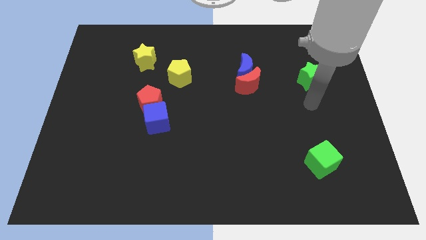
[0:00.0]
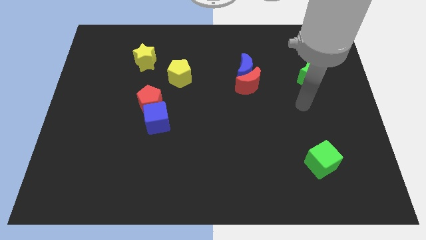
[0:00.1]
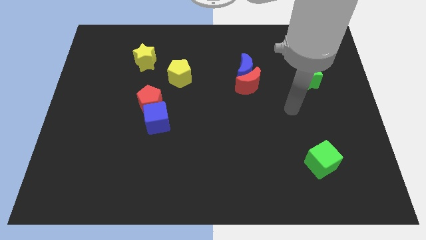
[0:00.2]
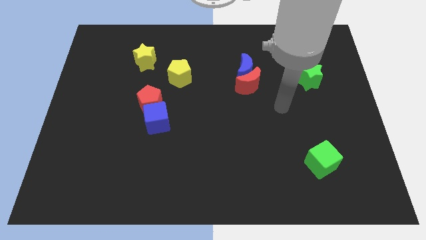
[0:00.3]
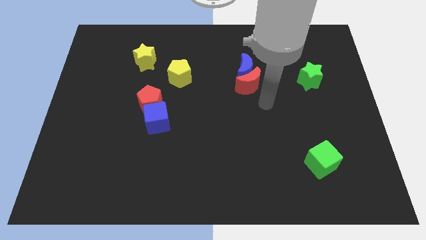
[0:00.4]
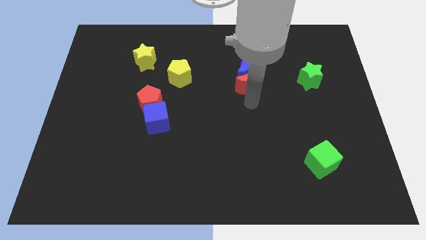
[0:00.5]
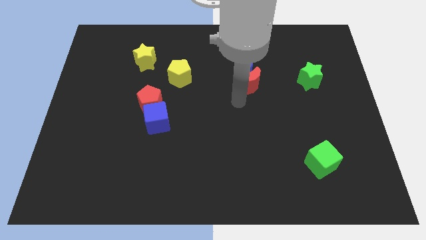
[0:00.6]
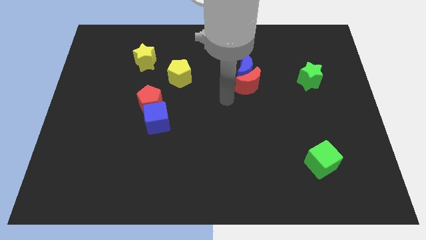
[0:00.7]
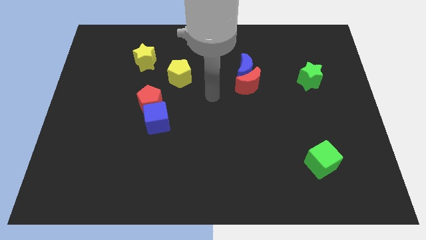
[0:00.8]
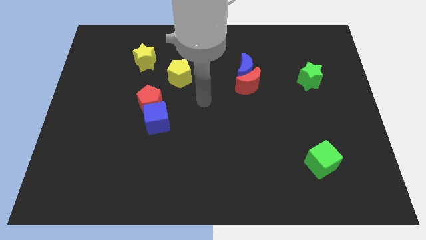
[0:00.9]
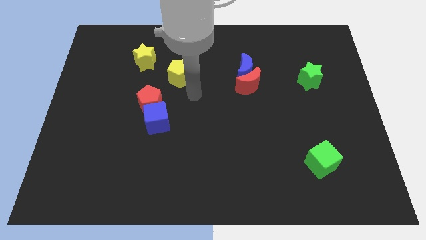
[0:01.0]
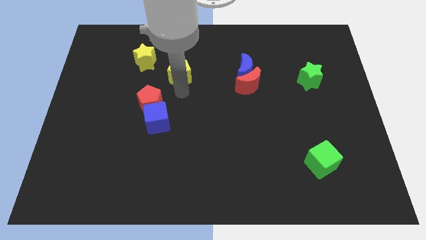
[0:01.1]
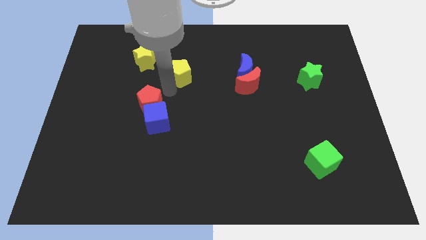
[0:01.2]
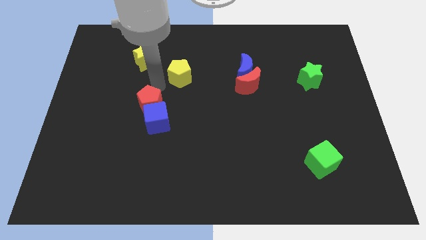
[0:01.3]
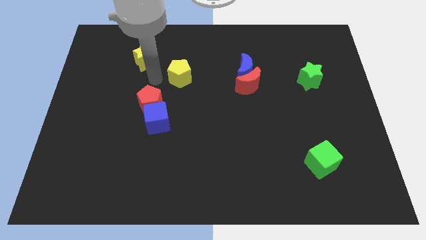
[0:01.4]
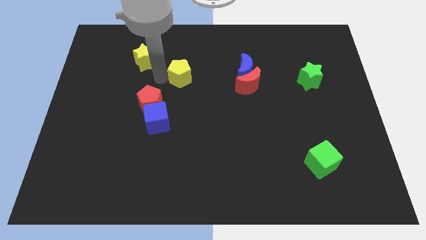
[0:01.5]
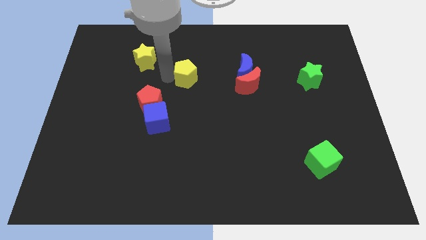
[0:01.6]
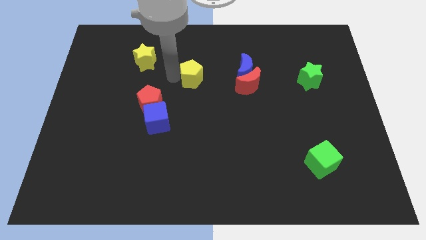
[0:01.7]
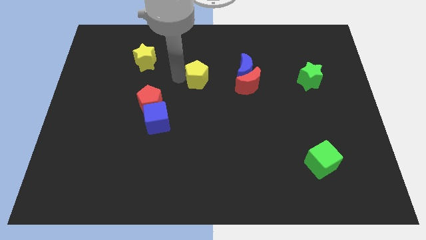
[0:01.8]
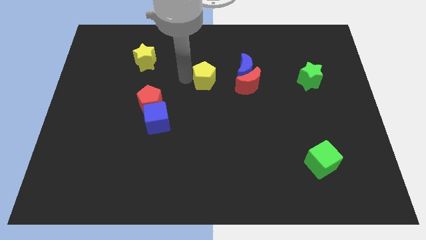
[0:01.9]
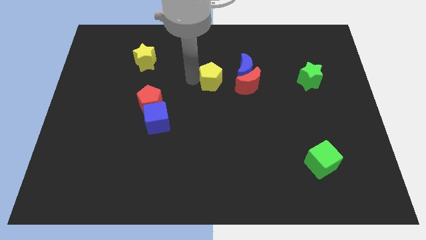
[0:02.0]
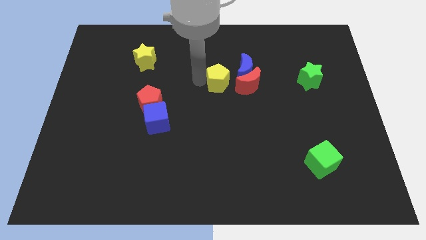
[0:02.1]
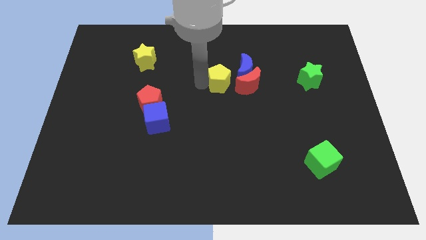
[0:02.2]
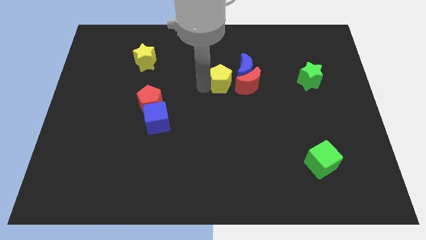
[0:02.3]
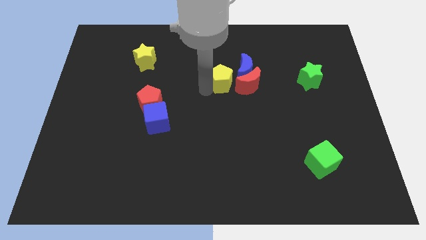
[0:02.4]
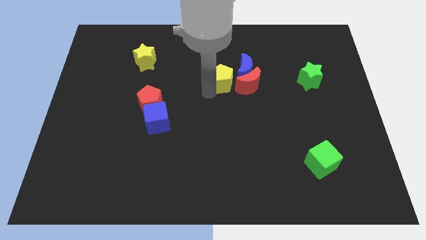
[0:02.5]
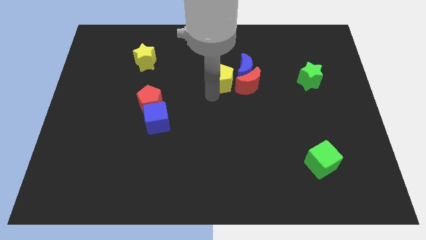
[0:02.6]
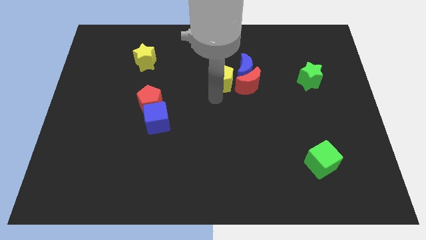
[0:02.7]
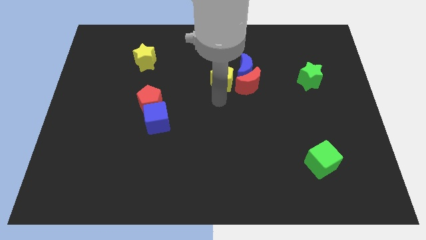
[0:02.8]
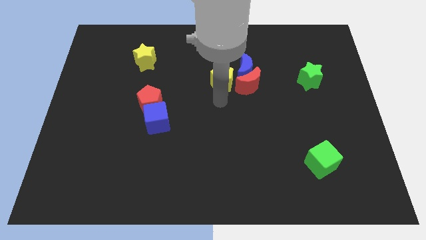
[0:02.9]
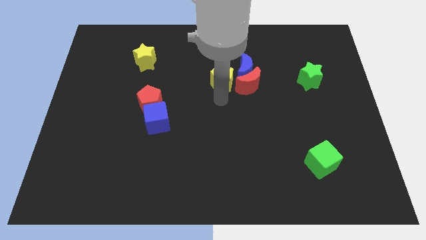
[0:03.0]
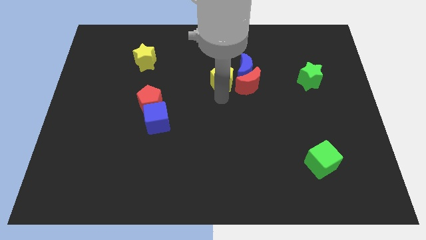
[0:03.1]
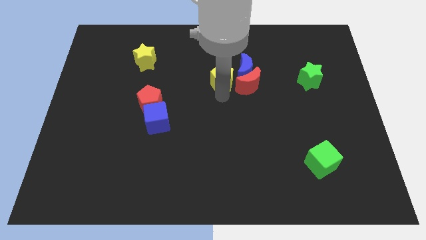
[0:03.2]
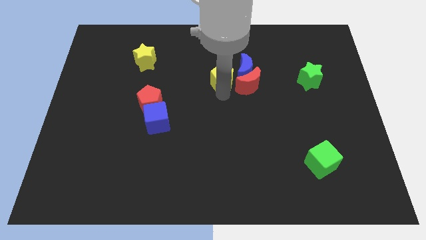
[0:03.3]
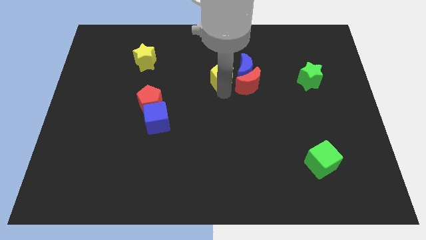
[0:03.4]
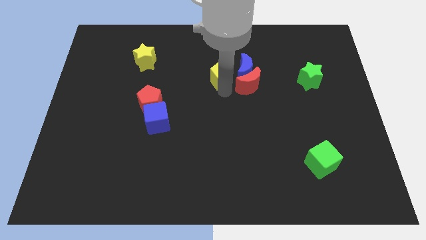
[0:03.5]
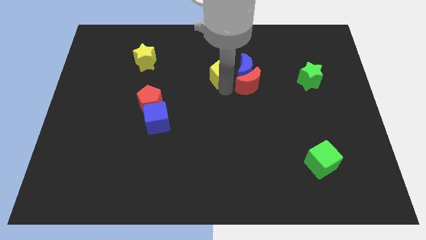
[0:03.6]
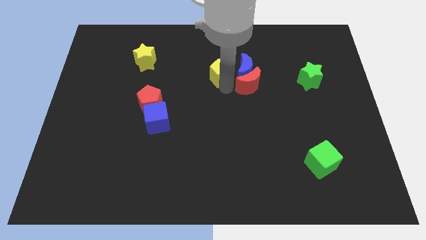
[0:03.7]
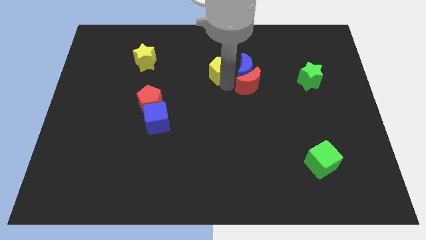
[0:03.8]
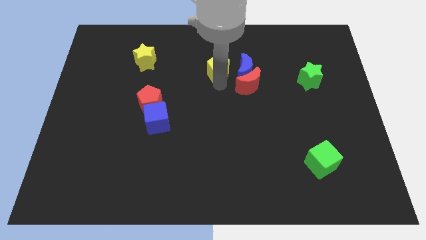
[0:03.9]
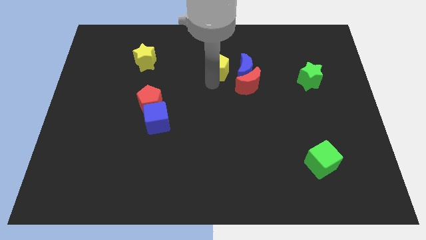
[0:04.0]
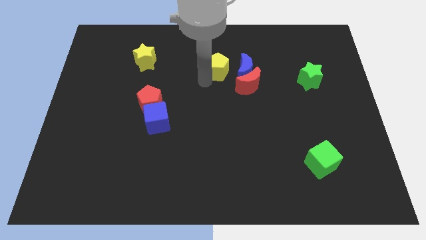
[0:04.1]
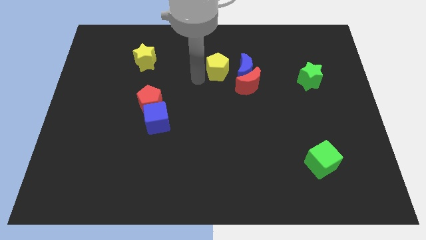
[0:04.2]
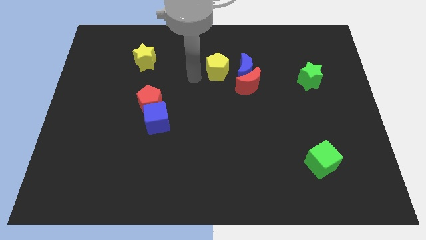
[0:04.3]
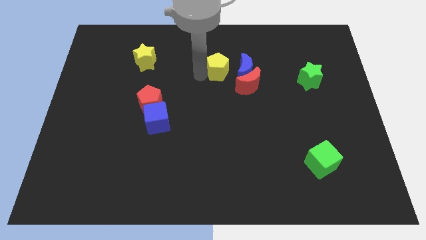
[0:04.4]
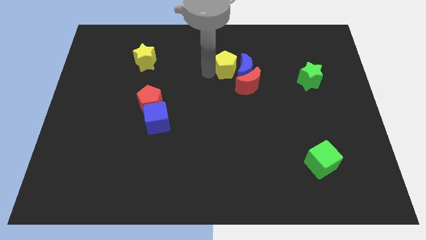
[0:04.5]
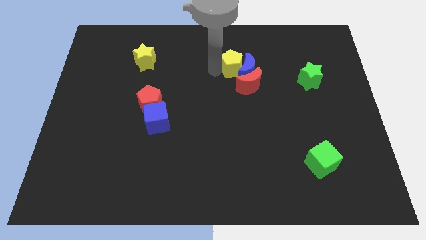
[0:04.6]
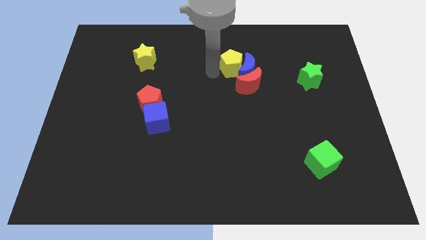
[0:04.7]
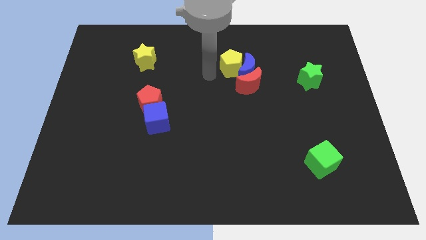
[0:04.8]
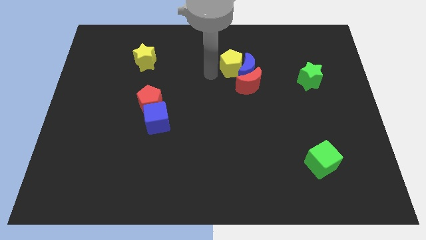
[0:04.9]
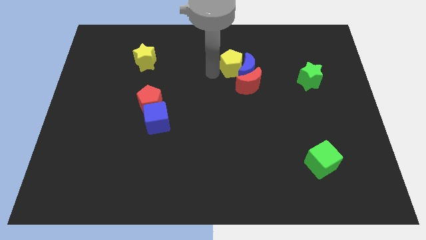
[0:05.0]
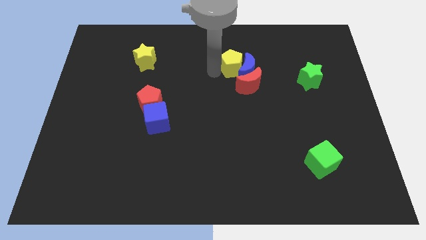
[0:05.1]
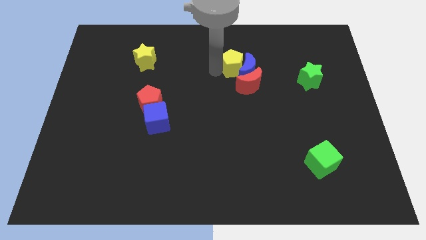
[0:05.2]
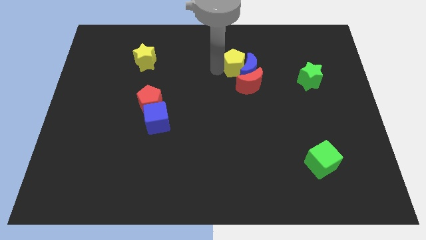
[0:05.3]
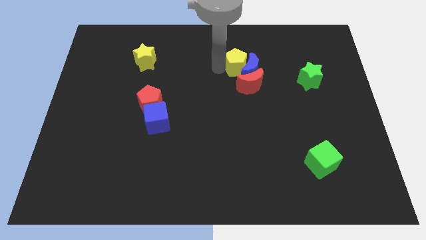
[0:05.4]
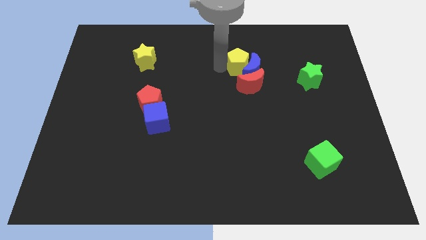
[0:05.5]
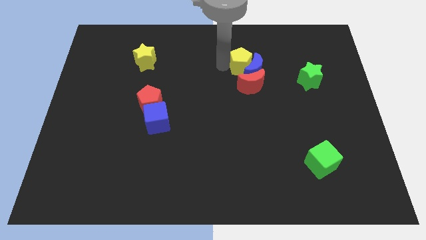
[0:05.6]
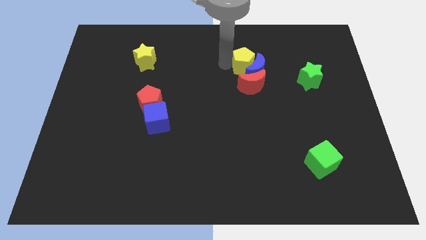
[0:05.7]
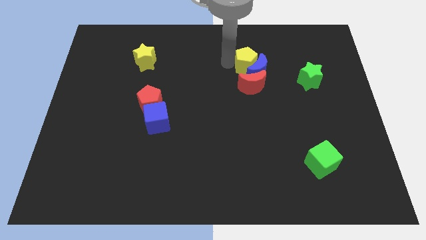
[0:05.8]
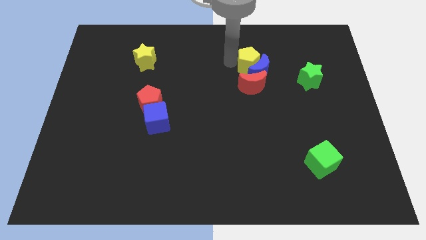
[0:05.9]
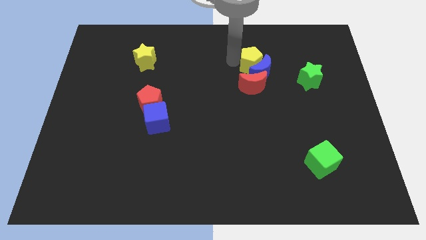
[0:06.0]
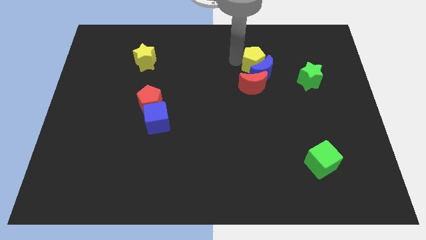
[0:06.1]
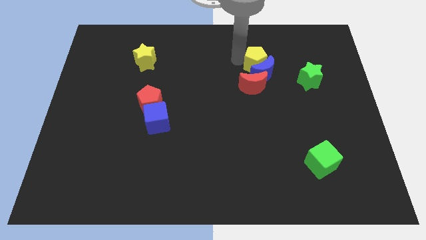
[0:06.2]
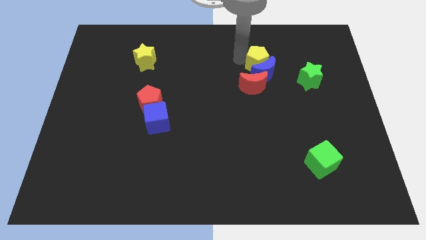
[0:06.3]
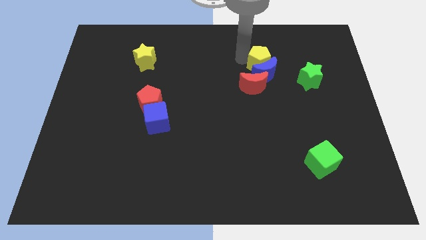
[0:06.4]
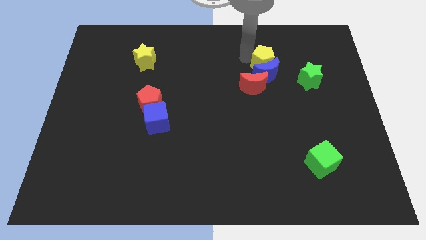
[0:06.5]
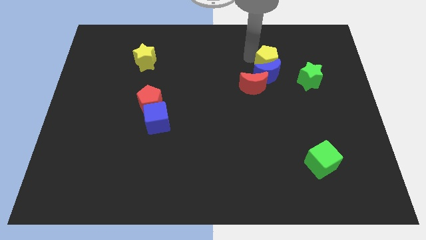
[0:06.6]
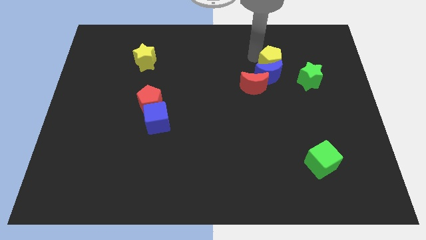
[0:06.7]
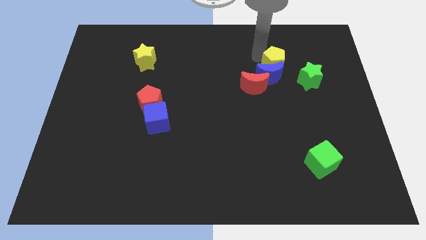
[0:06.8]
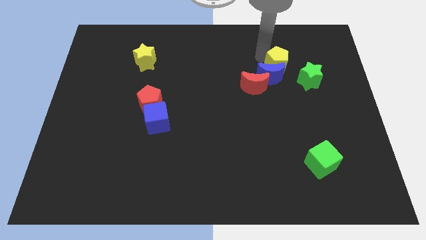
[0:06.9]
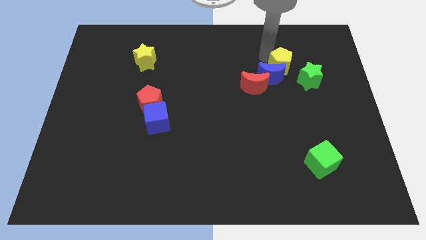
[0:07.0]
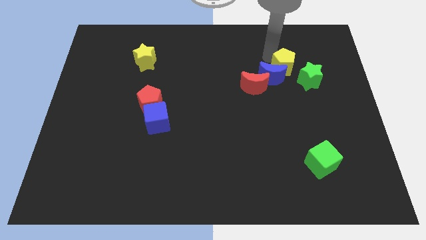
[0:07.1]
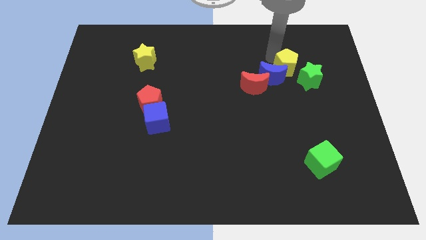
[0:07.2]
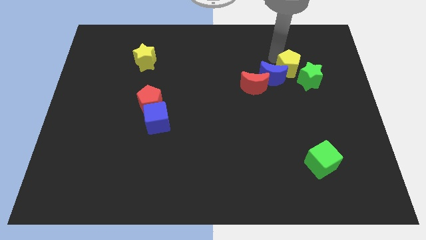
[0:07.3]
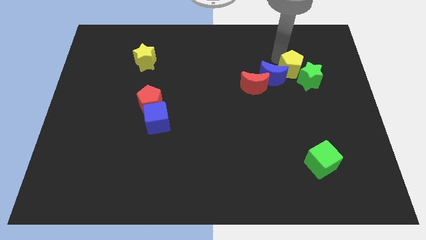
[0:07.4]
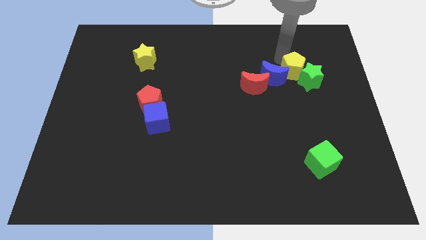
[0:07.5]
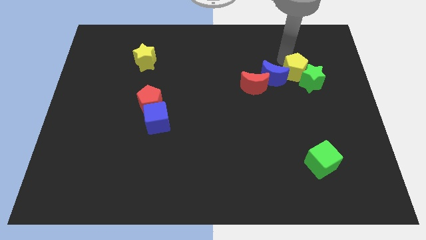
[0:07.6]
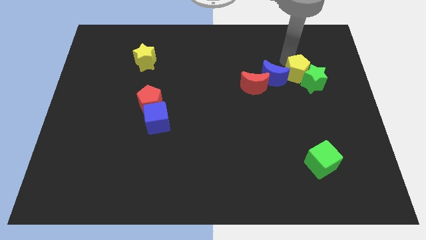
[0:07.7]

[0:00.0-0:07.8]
slide the yellow pentagon to the right of the red moon
